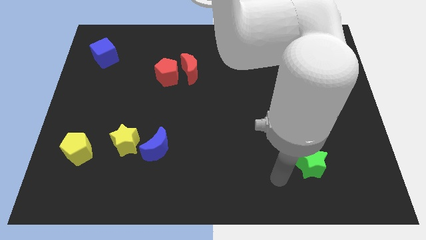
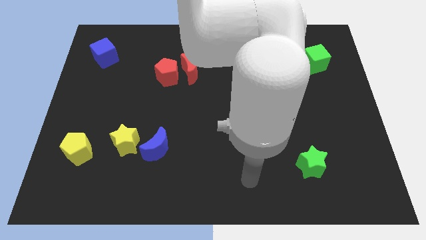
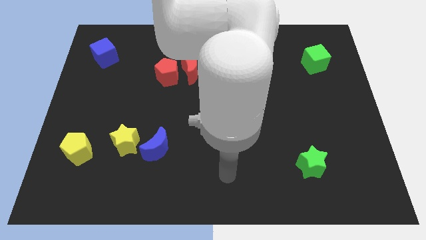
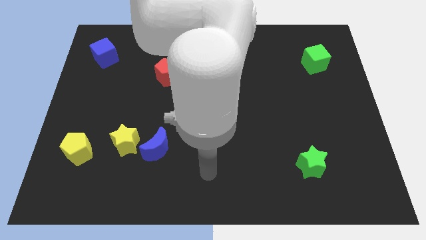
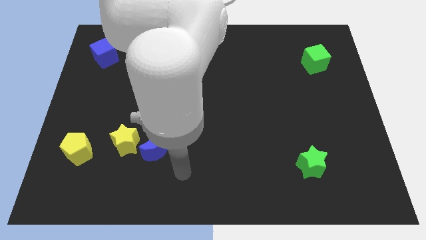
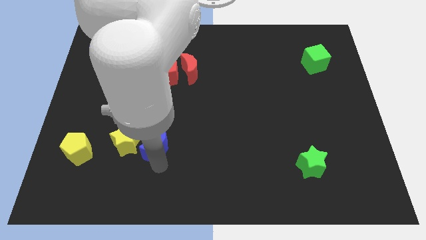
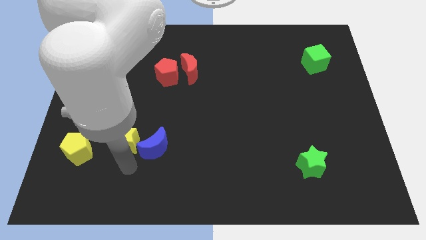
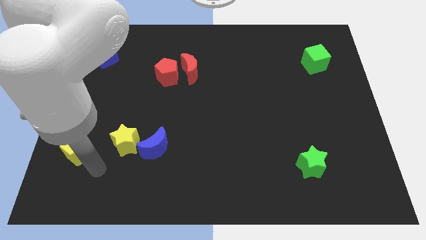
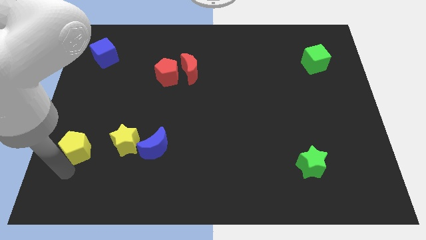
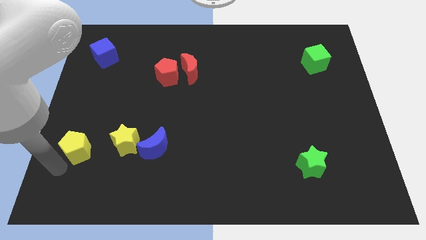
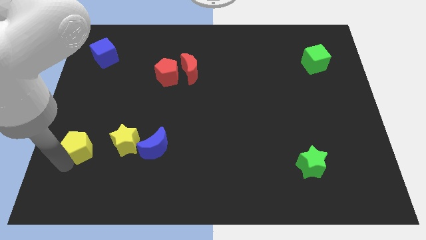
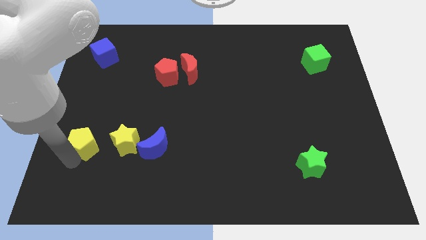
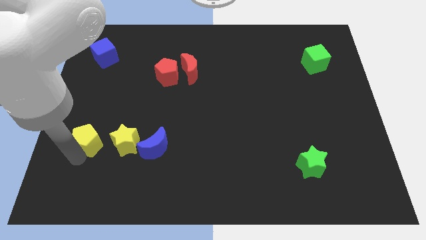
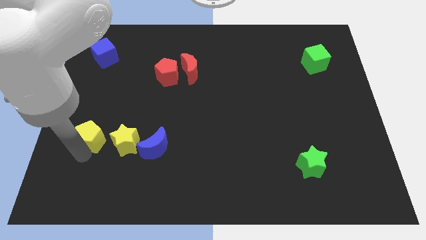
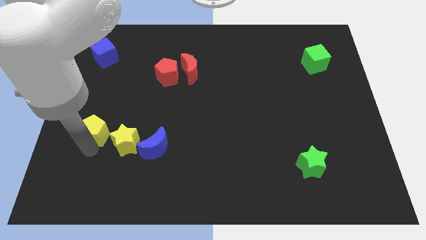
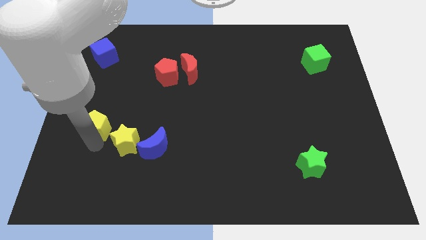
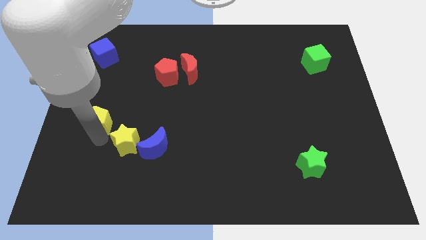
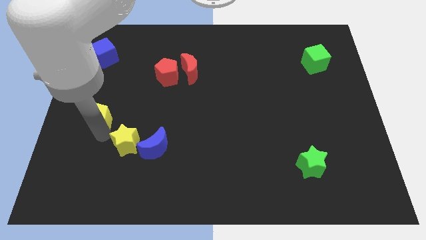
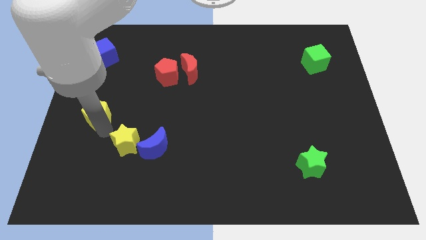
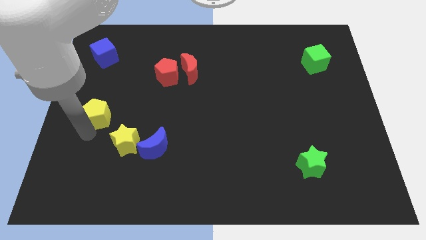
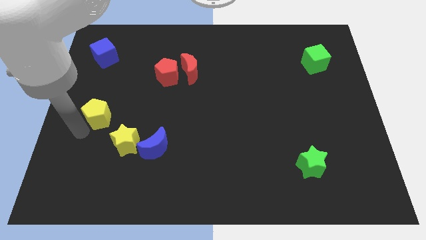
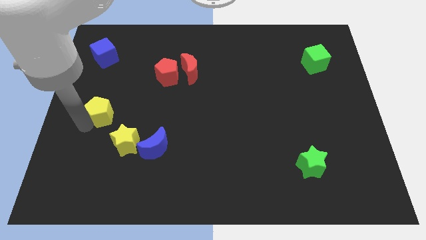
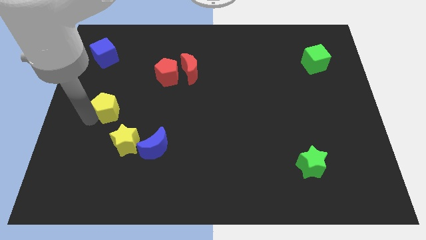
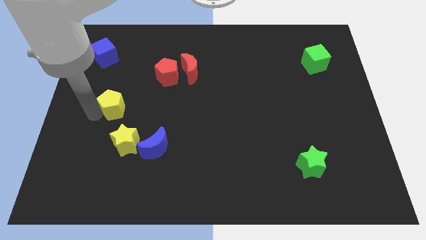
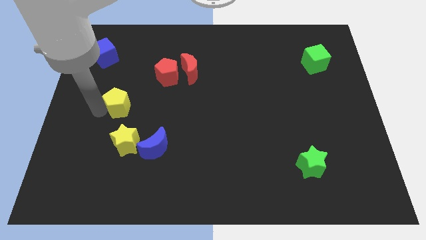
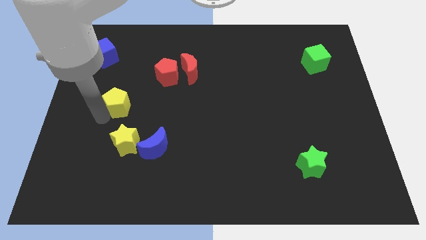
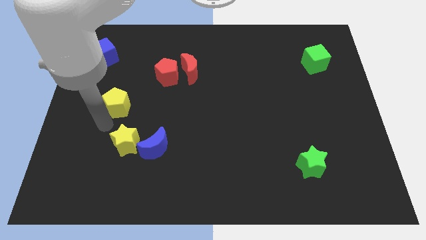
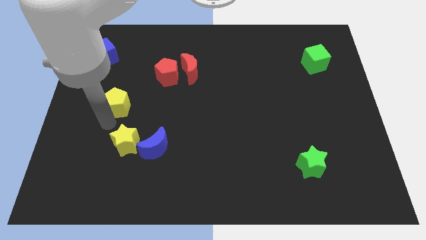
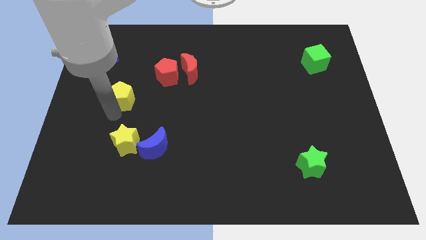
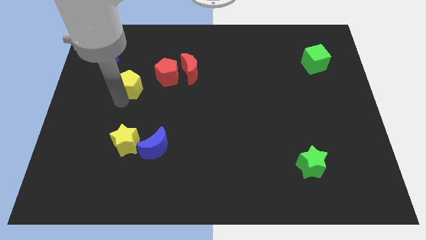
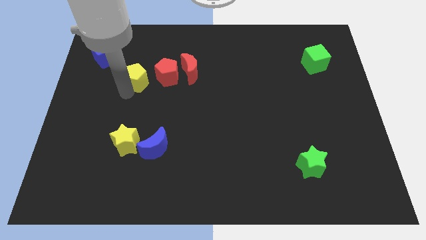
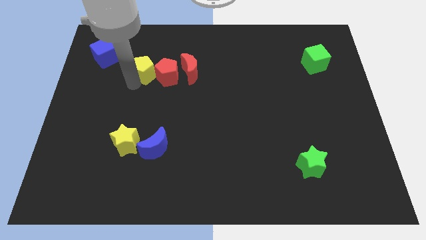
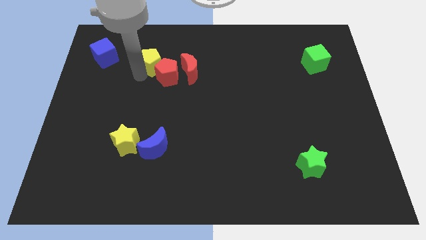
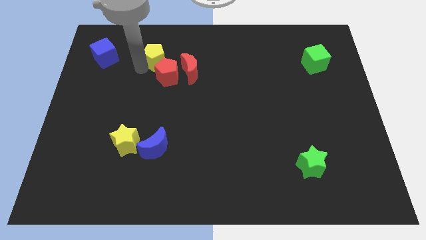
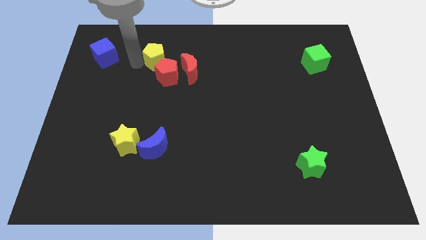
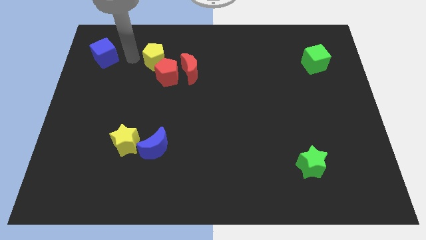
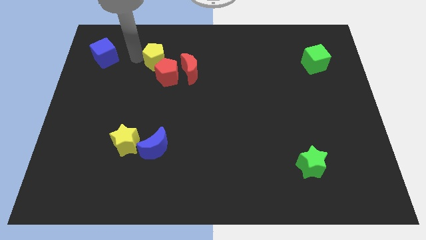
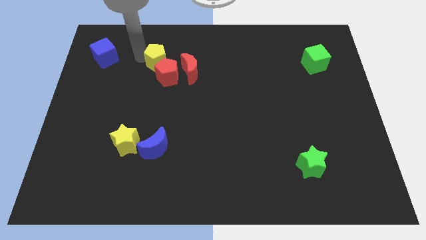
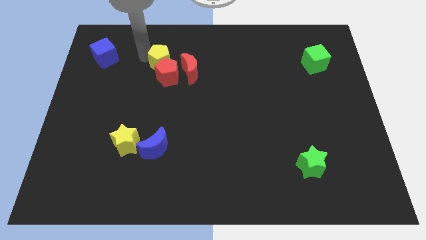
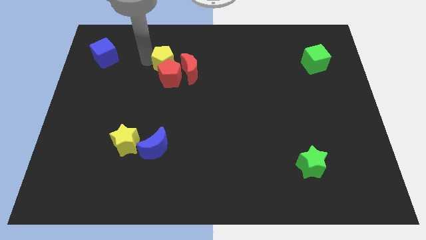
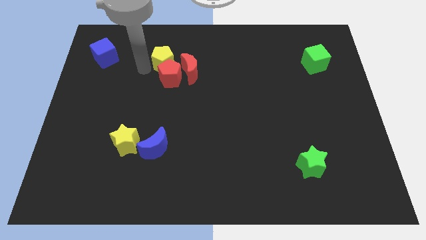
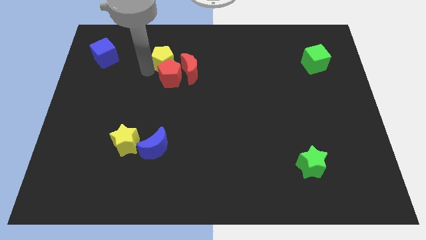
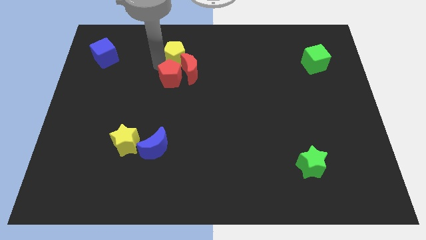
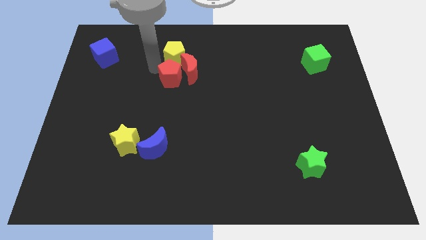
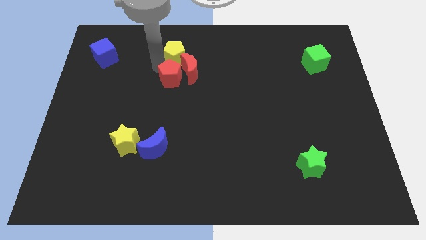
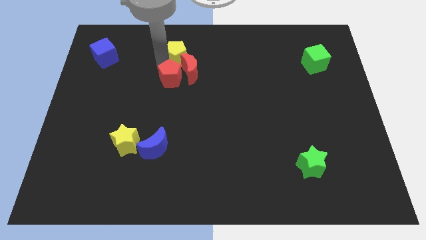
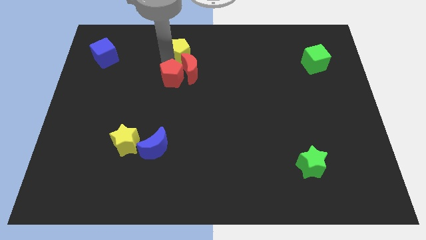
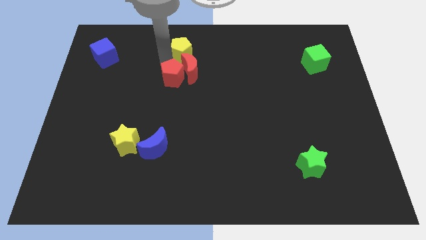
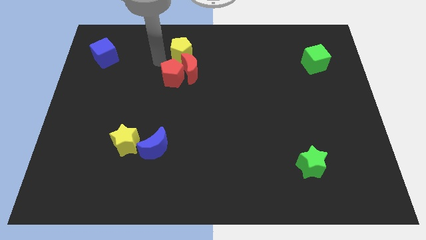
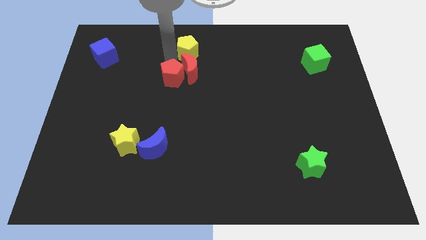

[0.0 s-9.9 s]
put the yellow pentagon to the top side

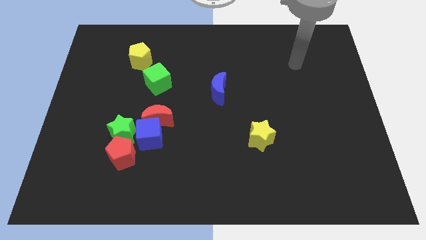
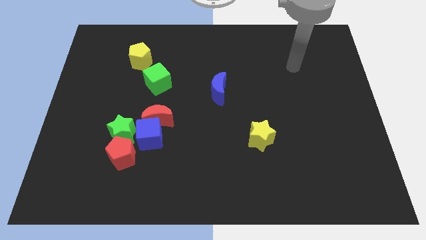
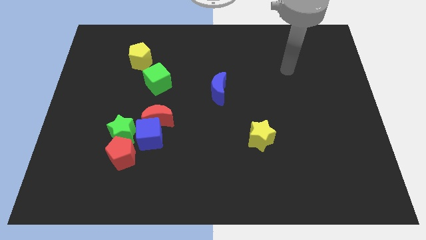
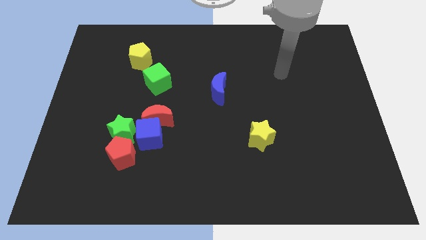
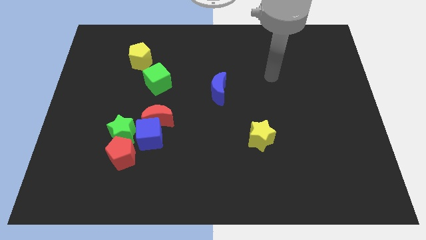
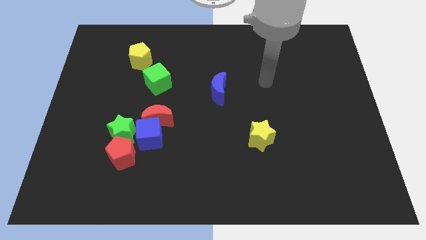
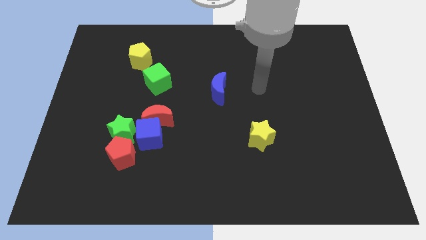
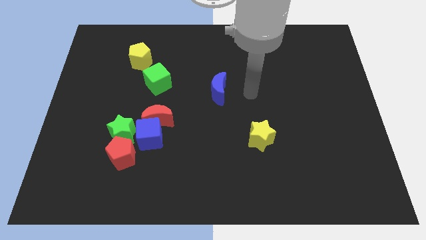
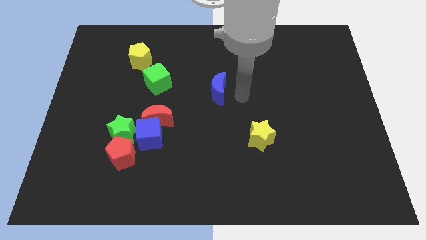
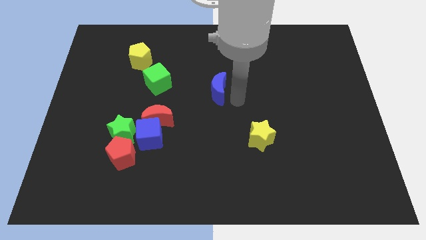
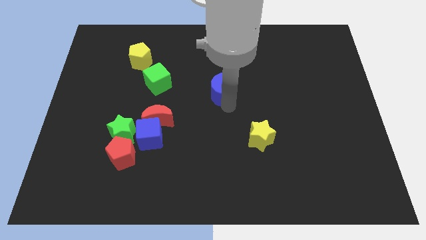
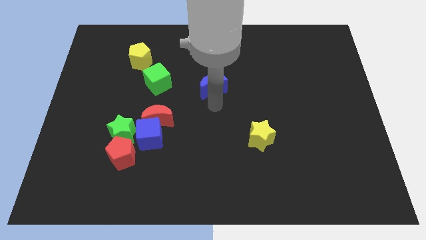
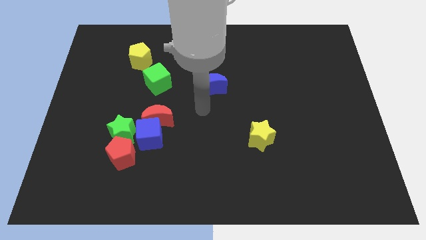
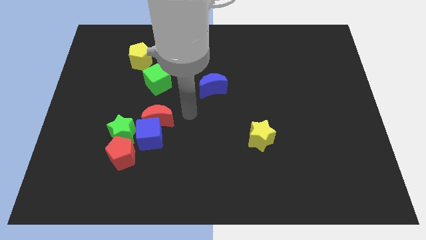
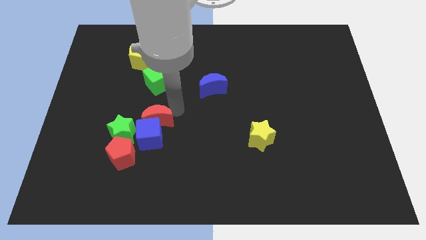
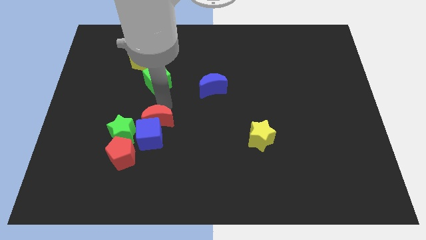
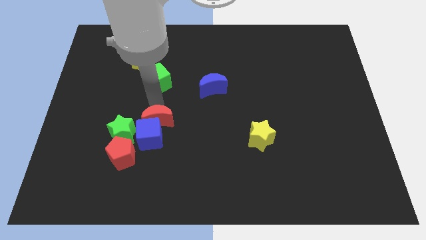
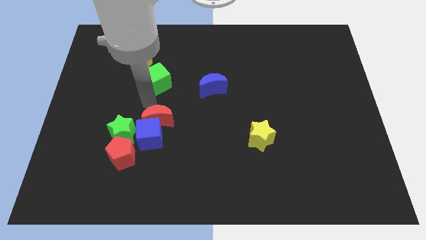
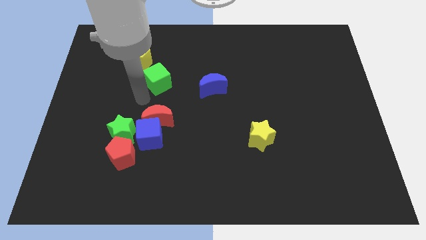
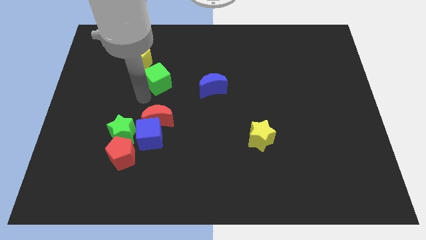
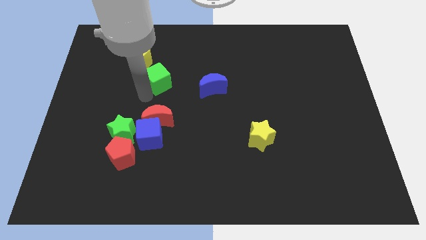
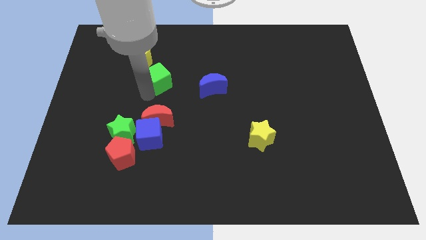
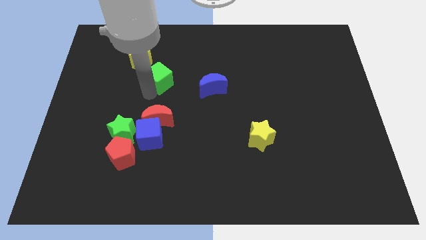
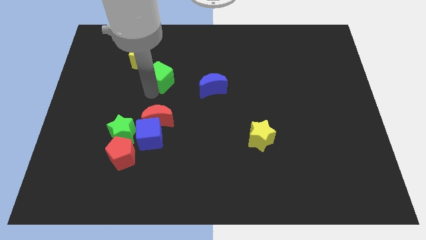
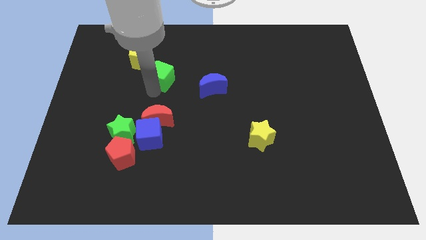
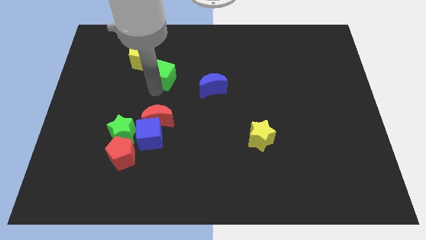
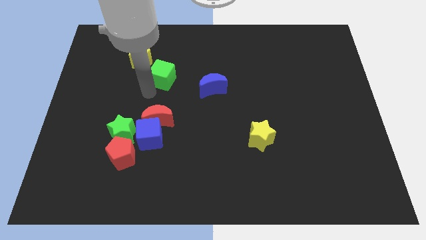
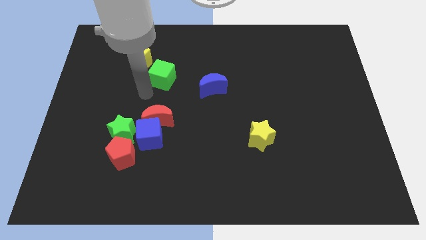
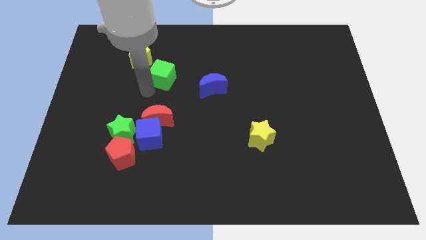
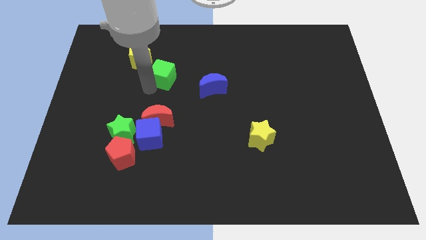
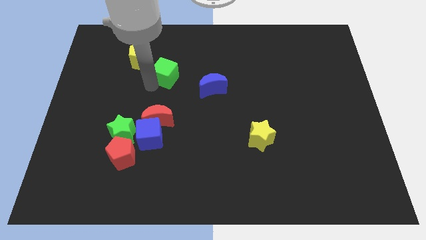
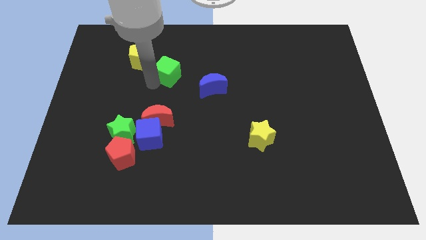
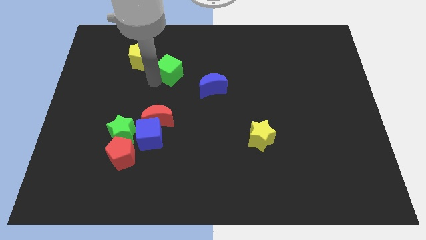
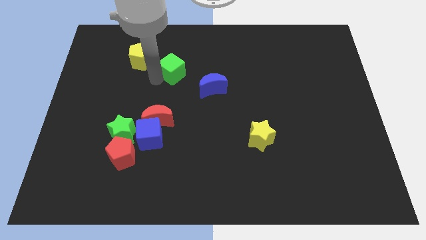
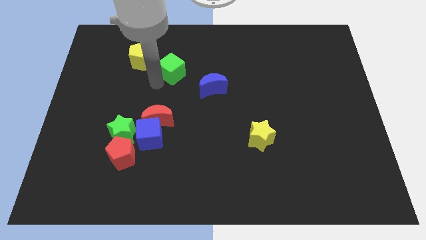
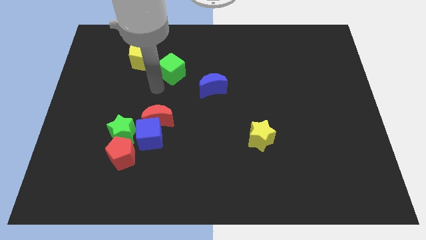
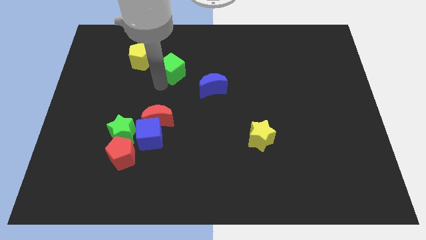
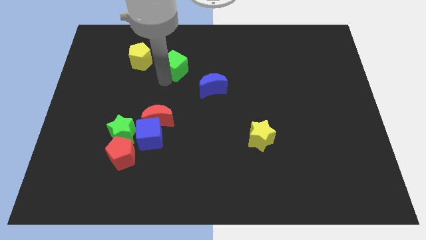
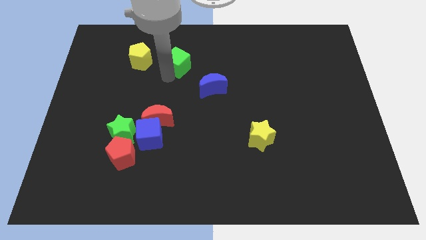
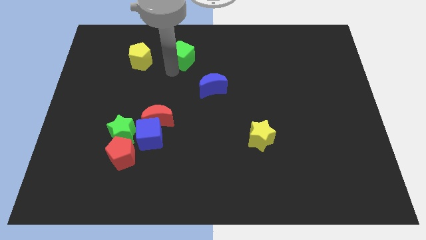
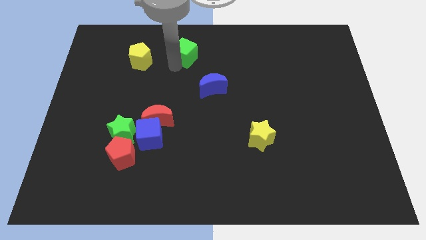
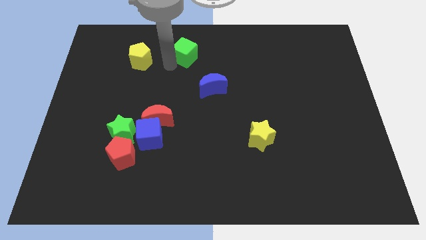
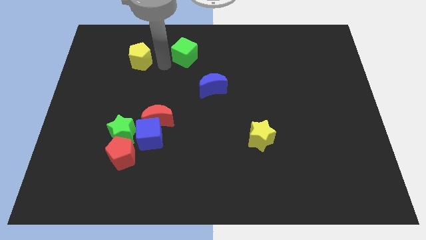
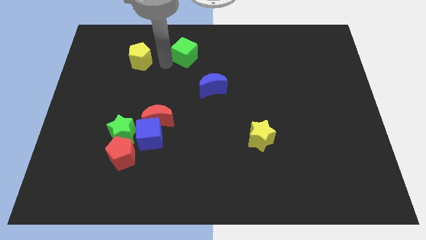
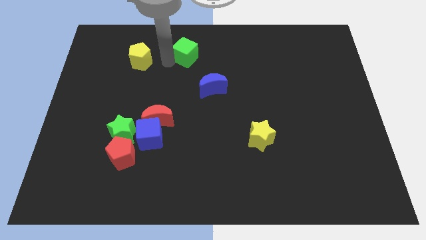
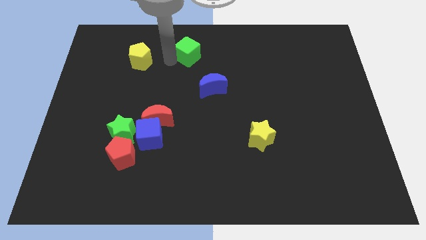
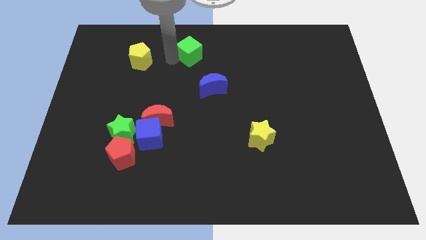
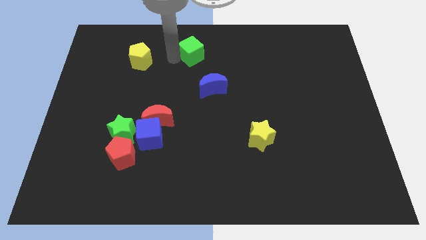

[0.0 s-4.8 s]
slide the green cube to the top side
